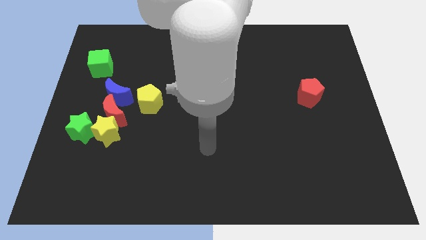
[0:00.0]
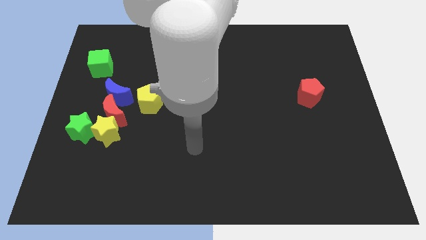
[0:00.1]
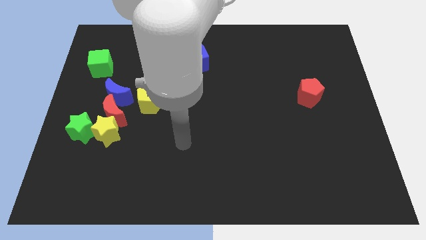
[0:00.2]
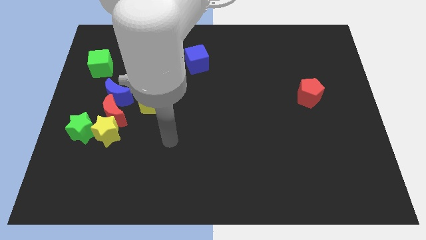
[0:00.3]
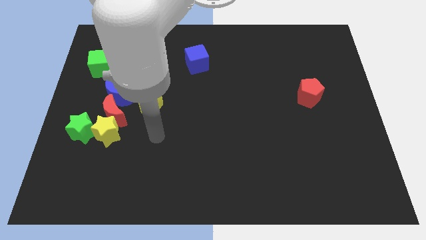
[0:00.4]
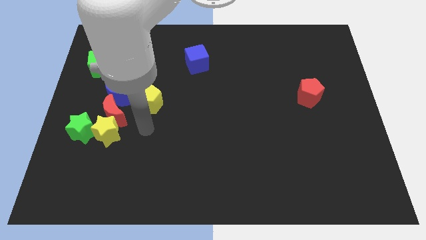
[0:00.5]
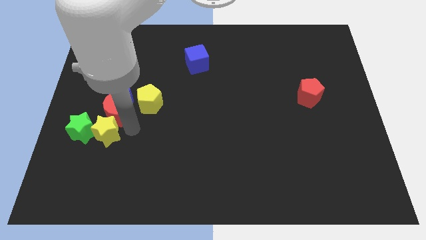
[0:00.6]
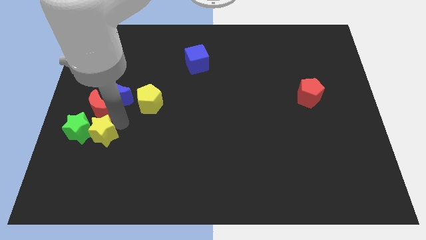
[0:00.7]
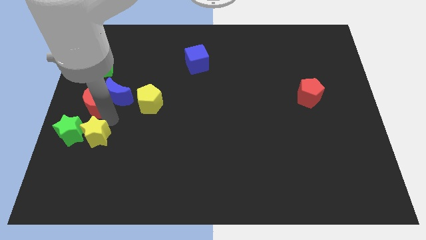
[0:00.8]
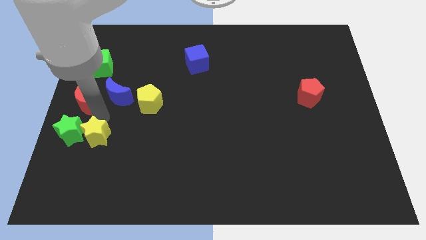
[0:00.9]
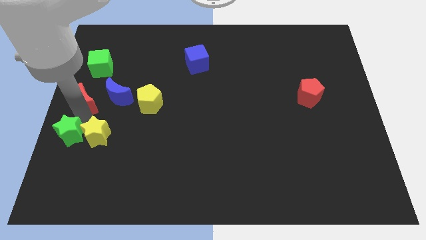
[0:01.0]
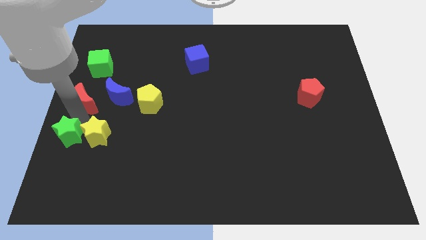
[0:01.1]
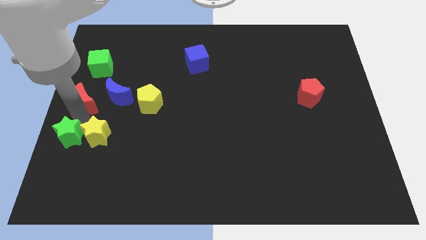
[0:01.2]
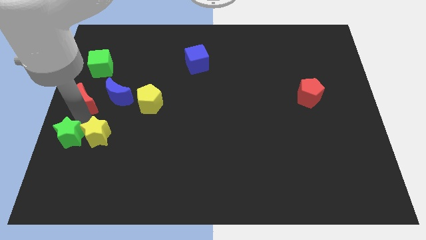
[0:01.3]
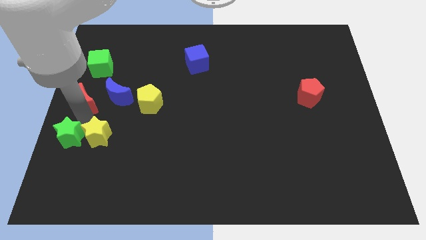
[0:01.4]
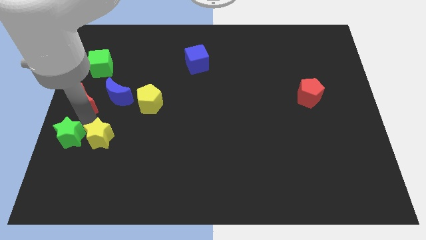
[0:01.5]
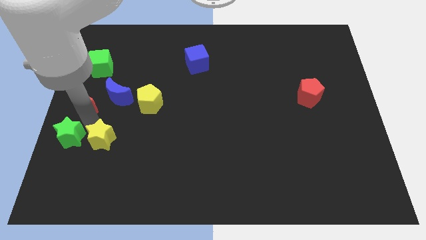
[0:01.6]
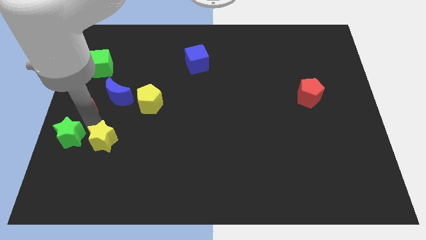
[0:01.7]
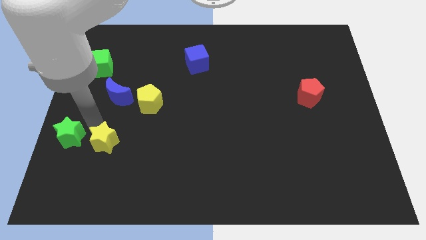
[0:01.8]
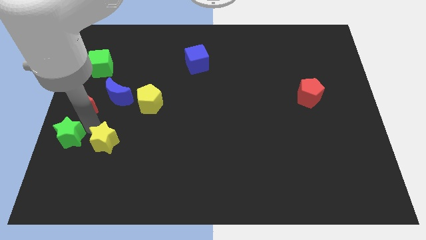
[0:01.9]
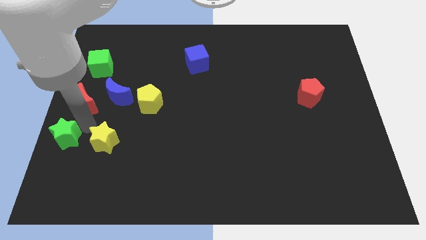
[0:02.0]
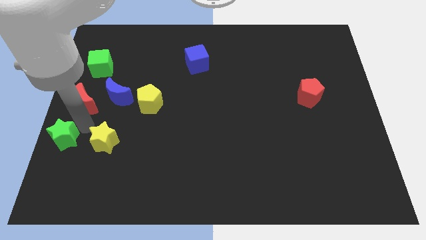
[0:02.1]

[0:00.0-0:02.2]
pull the yellow star apart from the red moon and green star

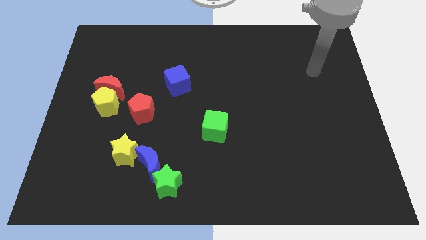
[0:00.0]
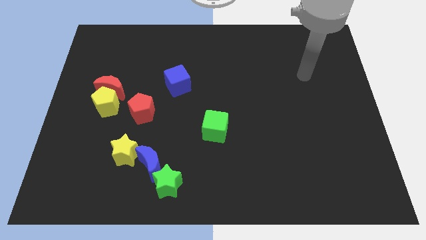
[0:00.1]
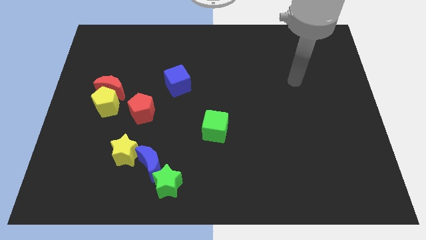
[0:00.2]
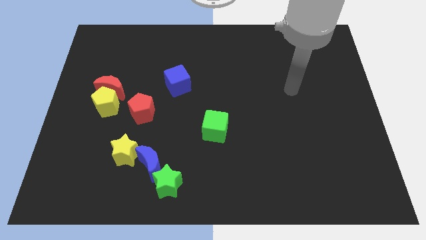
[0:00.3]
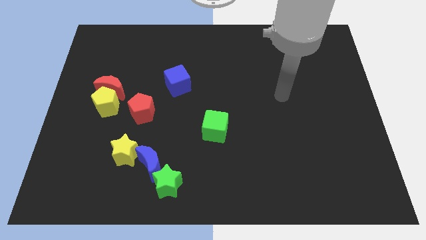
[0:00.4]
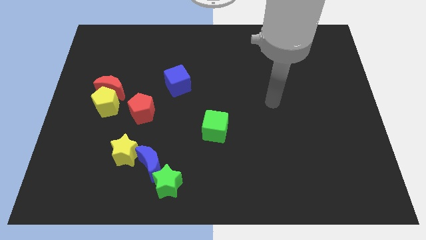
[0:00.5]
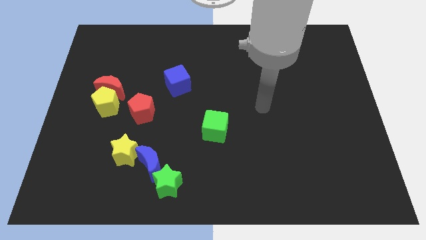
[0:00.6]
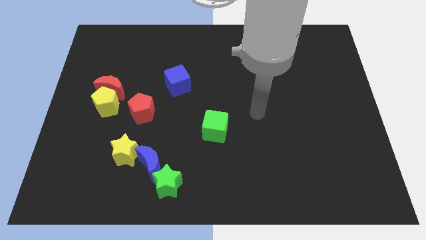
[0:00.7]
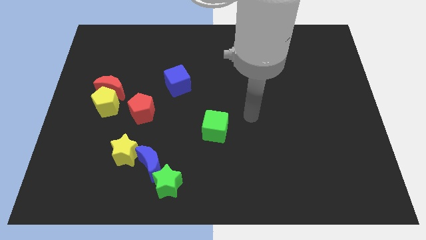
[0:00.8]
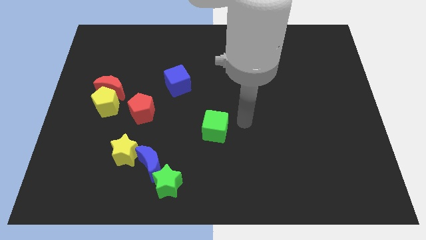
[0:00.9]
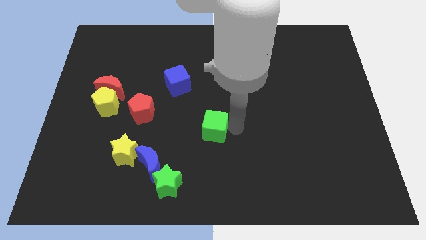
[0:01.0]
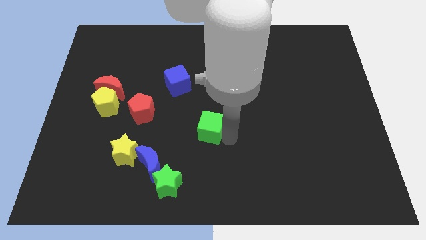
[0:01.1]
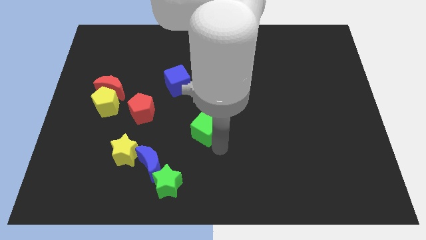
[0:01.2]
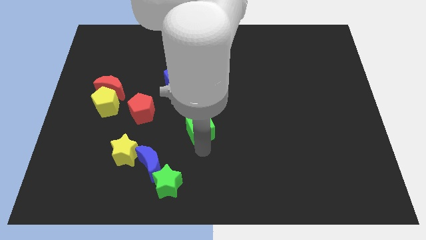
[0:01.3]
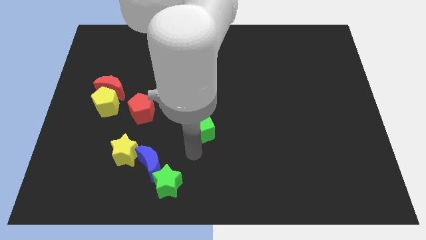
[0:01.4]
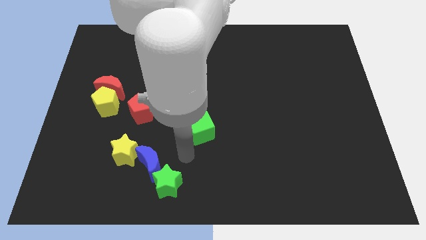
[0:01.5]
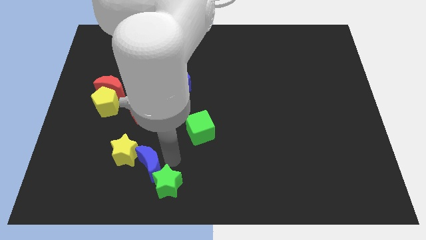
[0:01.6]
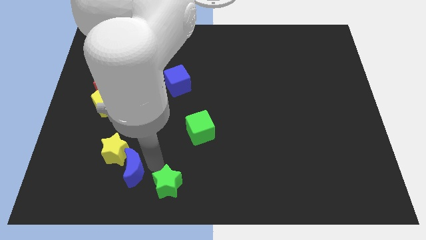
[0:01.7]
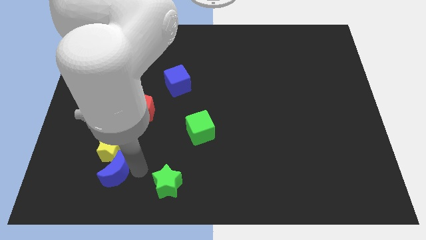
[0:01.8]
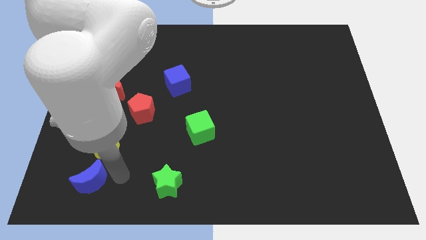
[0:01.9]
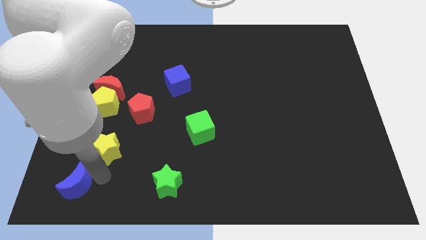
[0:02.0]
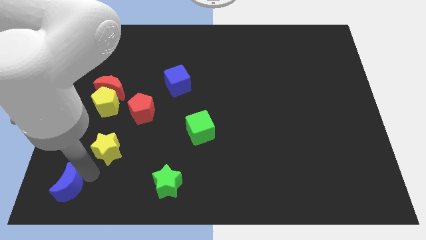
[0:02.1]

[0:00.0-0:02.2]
pull the yellow star apart from the blue moon

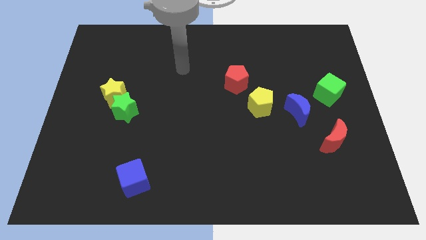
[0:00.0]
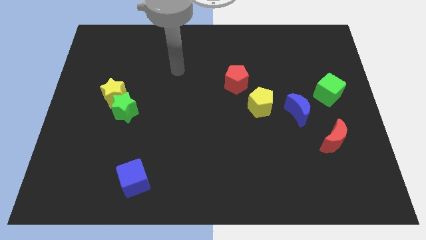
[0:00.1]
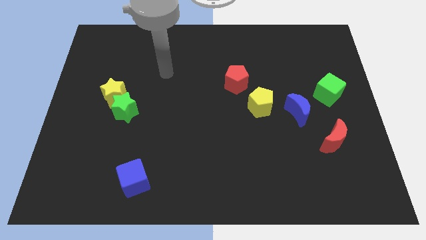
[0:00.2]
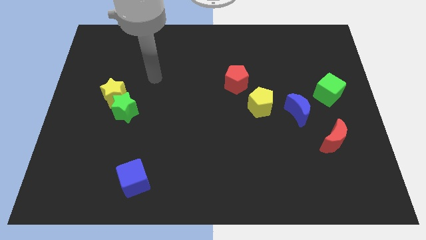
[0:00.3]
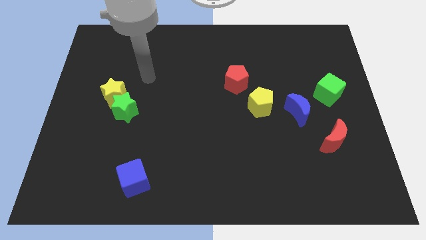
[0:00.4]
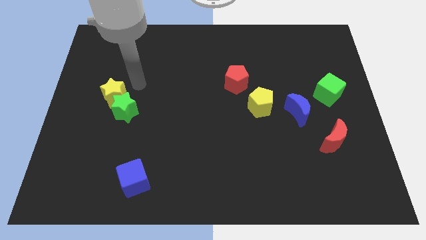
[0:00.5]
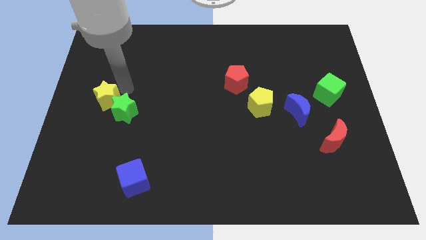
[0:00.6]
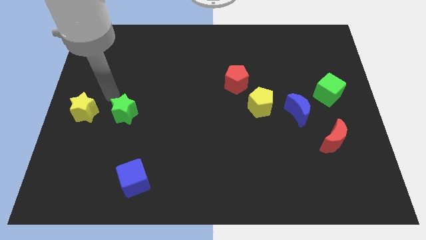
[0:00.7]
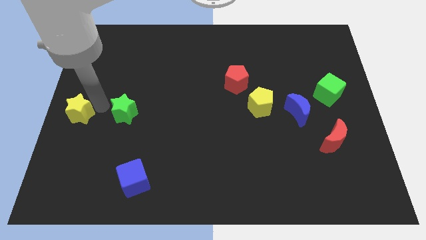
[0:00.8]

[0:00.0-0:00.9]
pull the green star apart from the yellow star

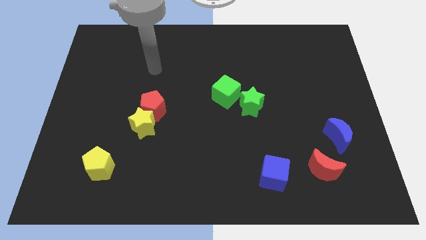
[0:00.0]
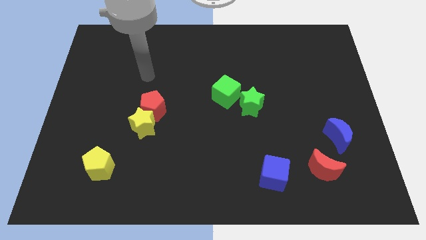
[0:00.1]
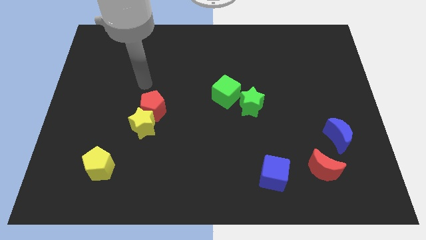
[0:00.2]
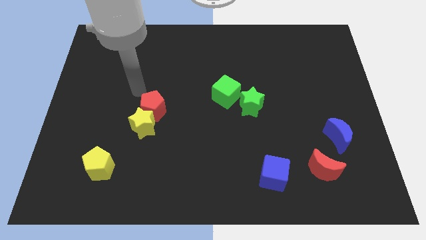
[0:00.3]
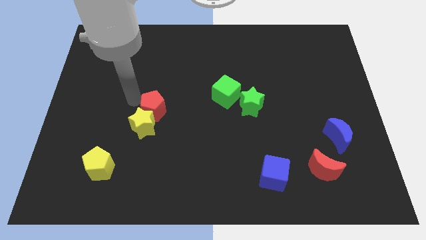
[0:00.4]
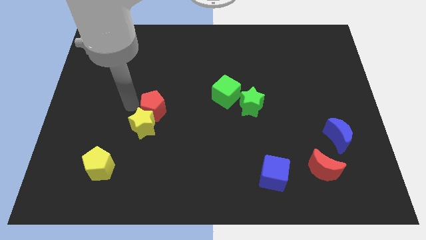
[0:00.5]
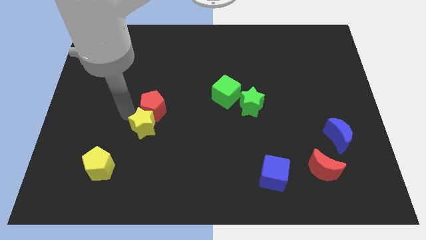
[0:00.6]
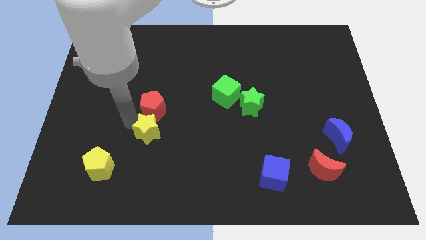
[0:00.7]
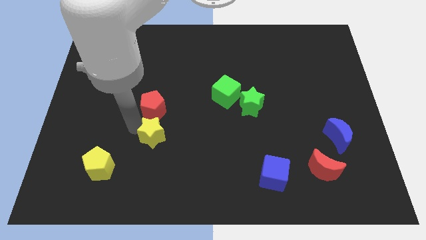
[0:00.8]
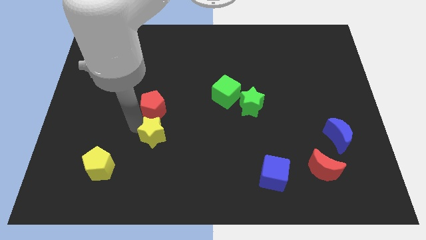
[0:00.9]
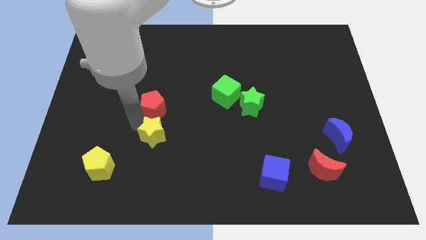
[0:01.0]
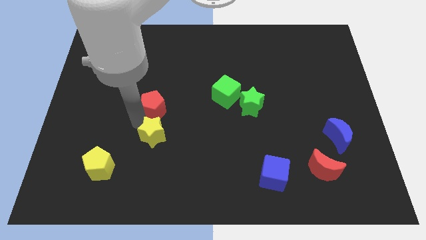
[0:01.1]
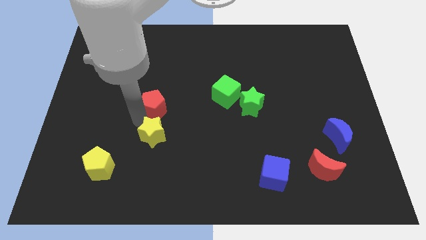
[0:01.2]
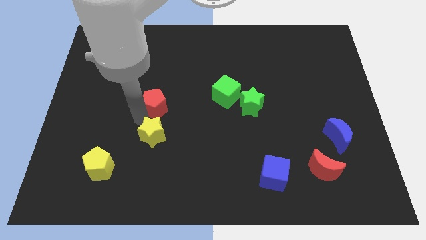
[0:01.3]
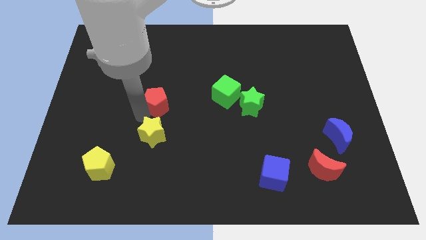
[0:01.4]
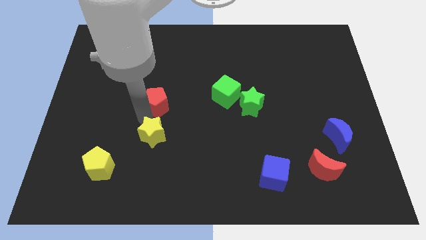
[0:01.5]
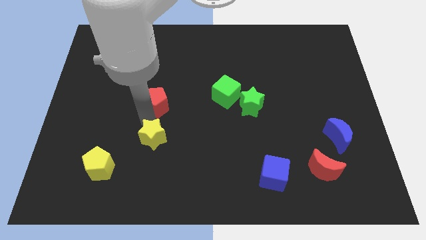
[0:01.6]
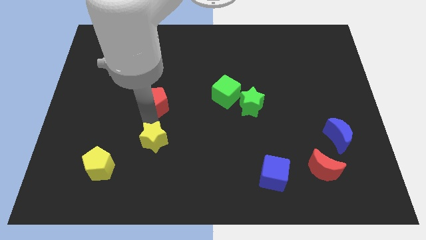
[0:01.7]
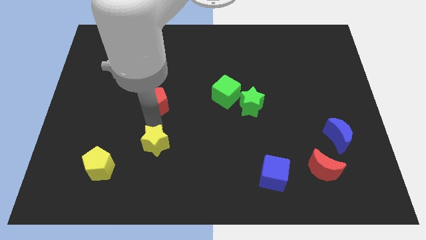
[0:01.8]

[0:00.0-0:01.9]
pull the red pentagon apart from the yellow star

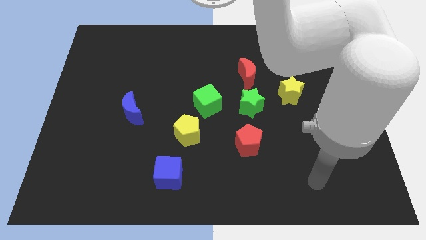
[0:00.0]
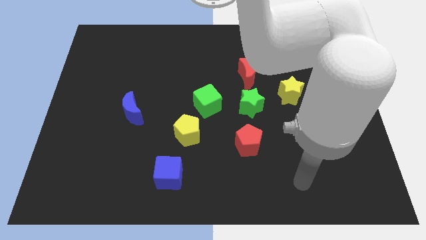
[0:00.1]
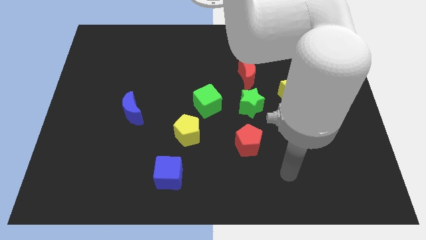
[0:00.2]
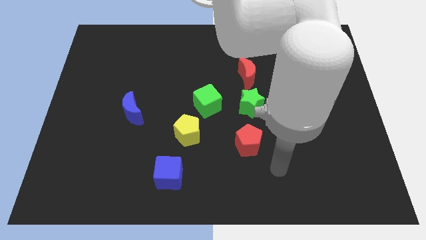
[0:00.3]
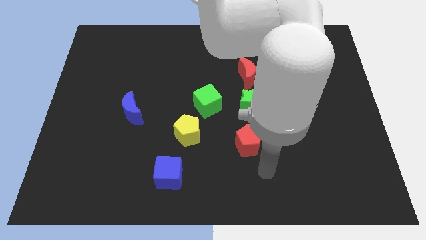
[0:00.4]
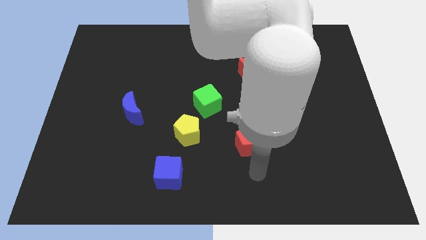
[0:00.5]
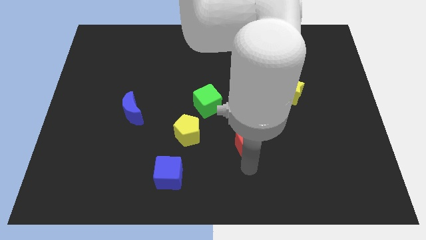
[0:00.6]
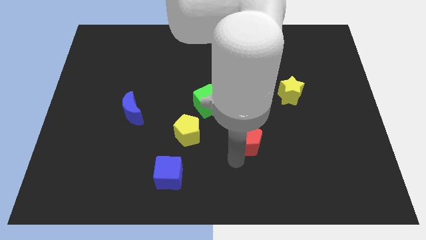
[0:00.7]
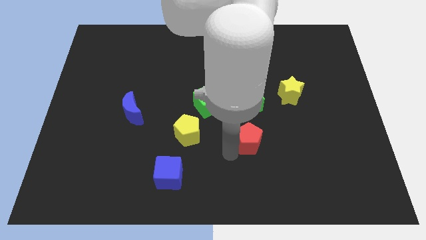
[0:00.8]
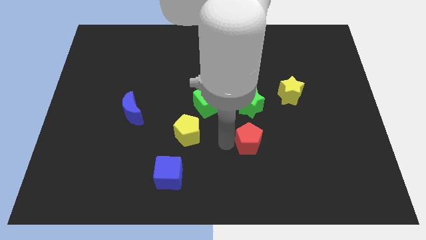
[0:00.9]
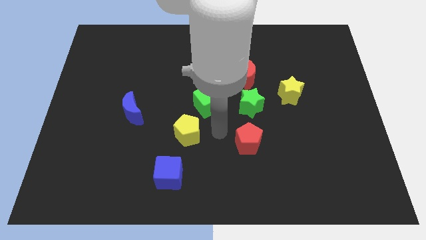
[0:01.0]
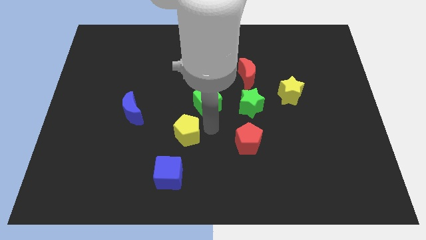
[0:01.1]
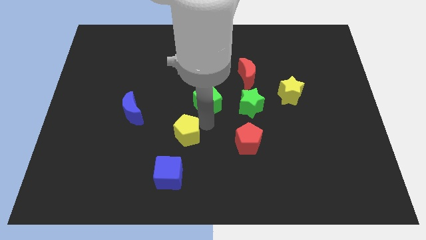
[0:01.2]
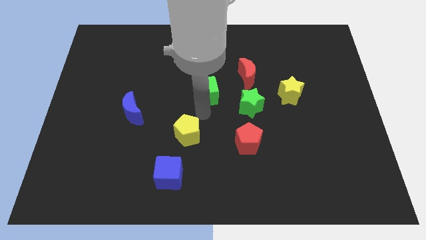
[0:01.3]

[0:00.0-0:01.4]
separate the yellow pentagon from the green cube

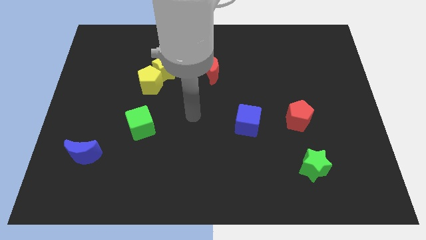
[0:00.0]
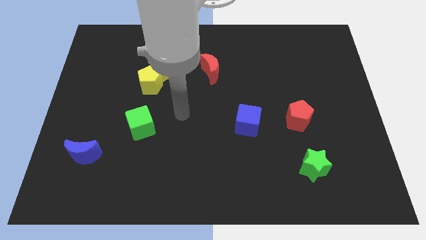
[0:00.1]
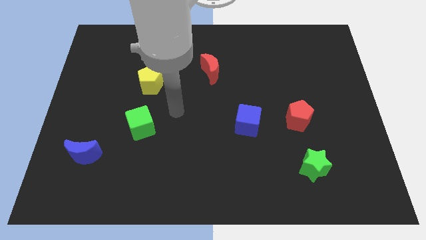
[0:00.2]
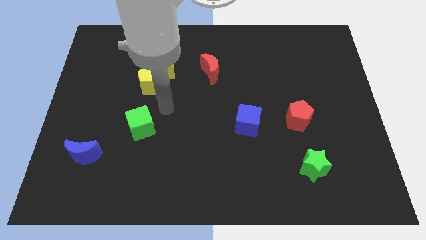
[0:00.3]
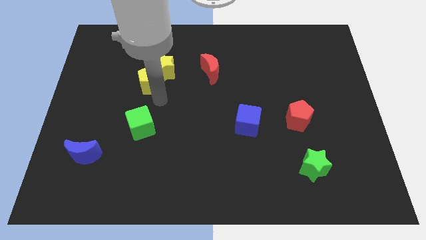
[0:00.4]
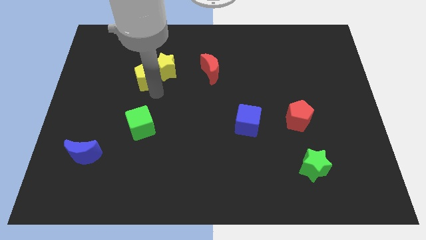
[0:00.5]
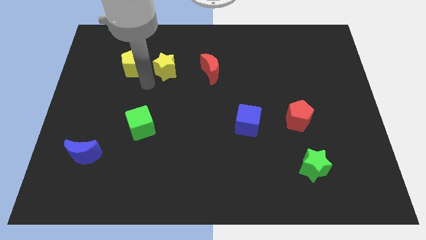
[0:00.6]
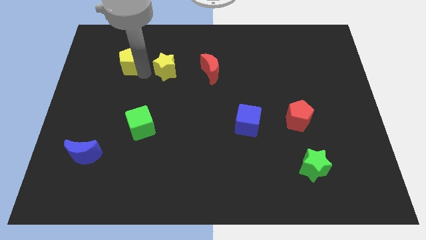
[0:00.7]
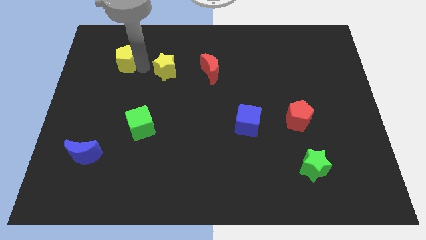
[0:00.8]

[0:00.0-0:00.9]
move the yellow star away from the yellow pentagon
